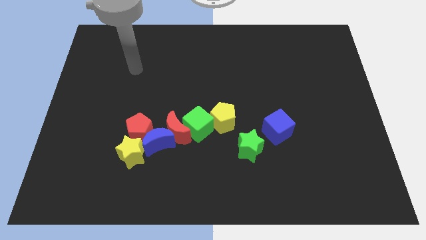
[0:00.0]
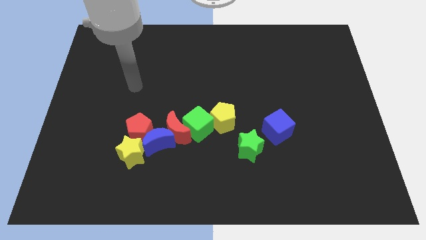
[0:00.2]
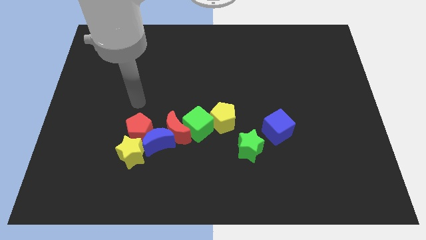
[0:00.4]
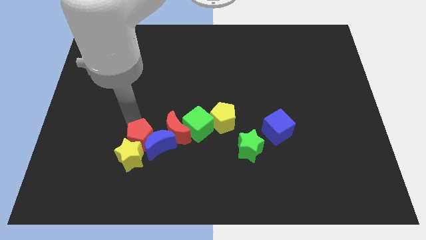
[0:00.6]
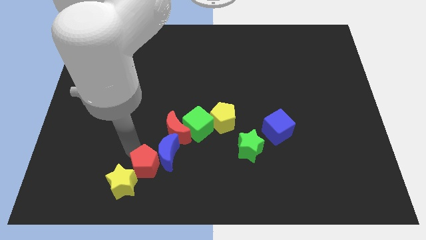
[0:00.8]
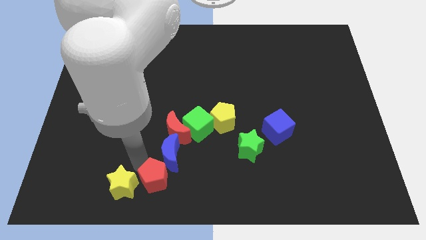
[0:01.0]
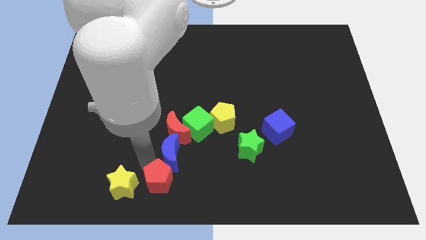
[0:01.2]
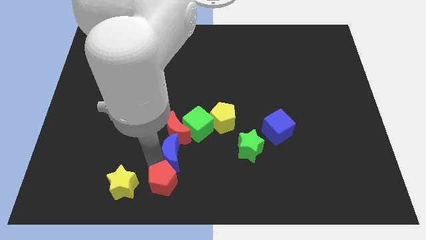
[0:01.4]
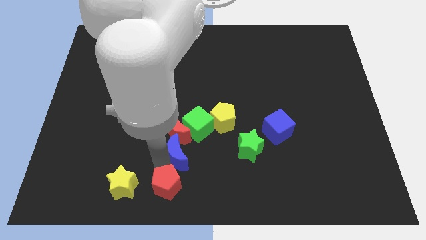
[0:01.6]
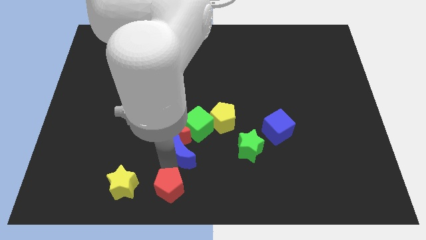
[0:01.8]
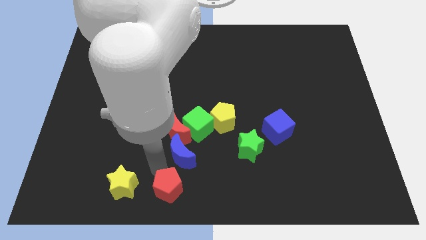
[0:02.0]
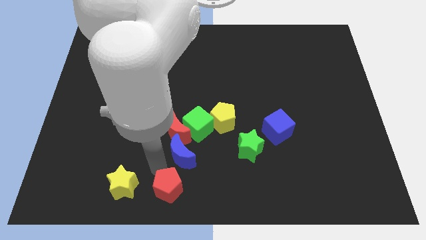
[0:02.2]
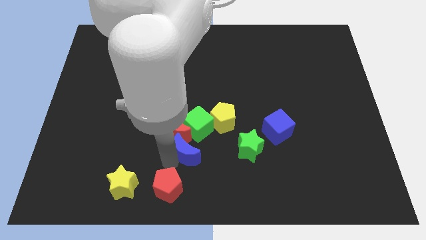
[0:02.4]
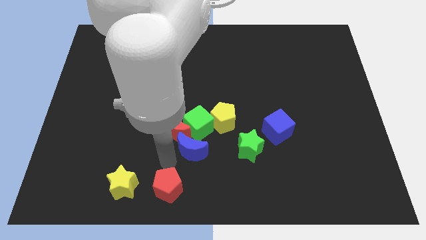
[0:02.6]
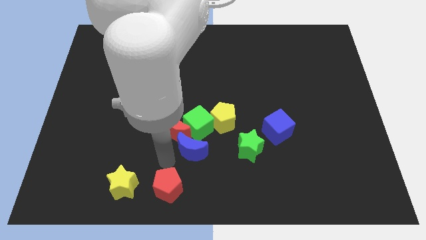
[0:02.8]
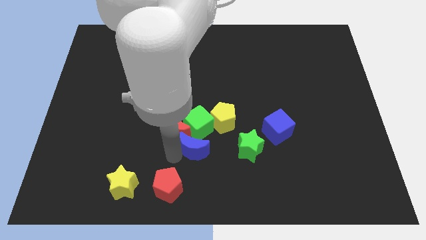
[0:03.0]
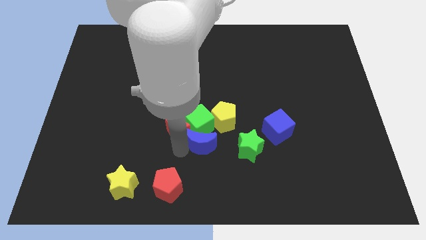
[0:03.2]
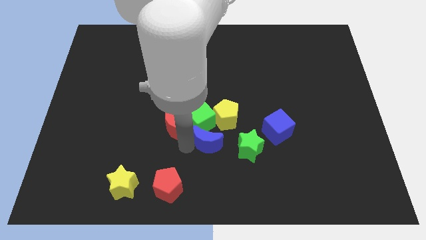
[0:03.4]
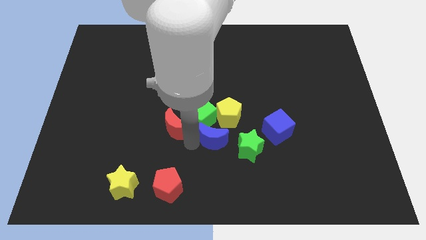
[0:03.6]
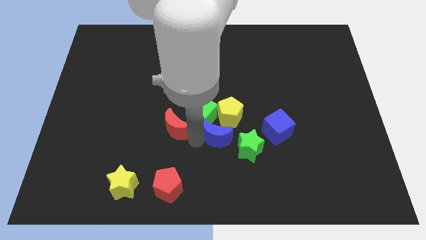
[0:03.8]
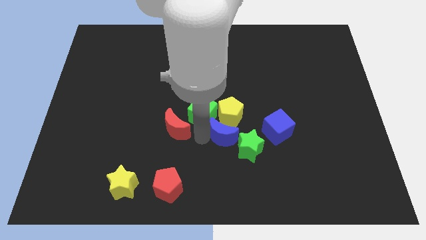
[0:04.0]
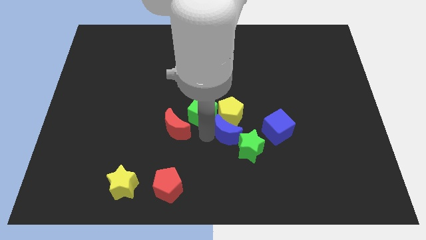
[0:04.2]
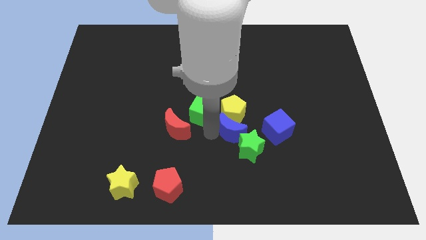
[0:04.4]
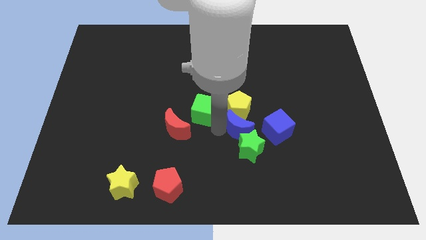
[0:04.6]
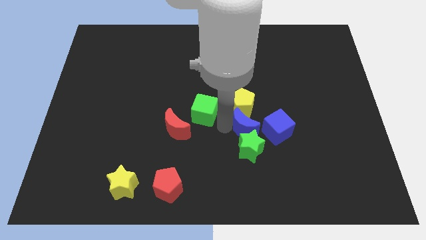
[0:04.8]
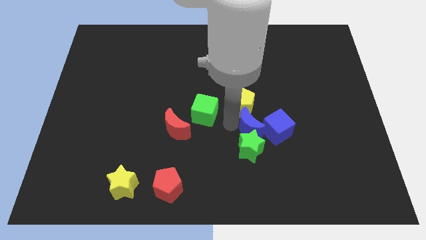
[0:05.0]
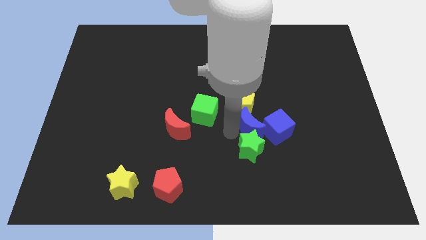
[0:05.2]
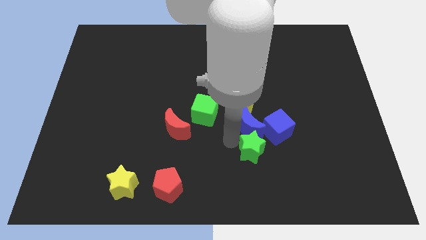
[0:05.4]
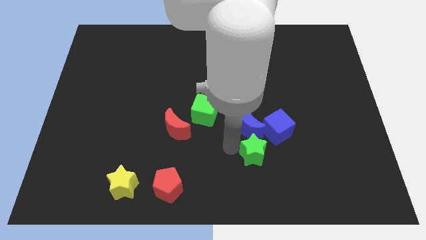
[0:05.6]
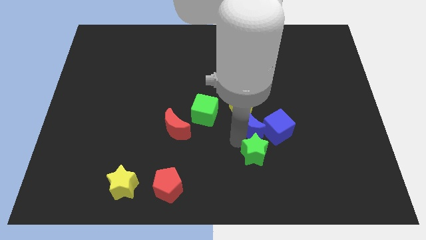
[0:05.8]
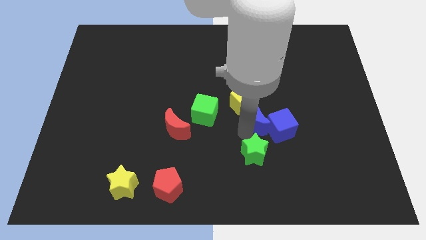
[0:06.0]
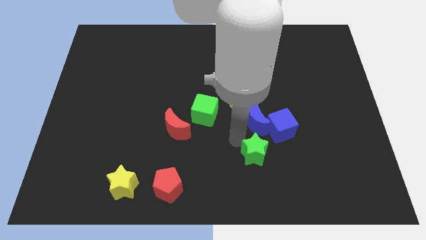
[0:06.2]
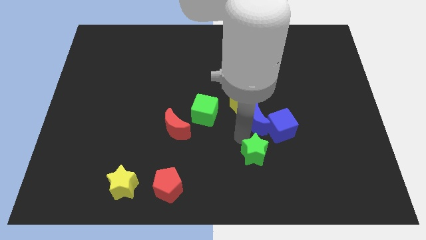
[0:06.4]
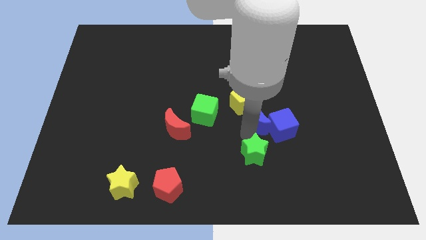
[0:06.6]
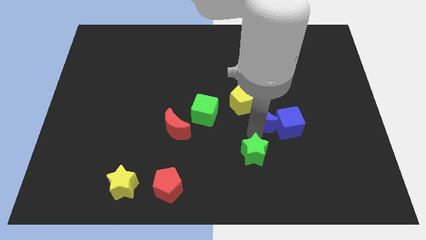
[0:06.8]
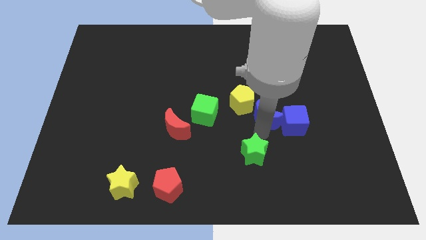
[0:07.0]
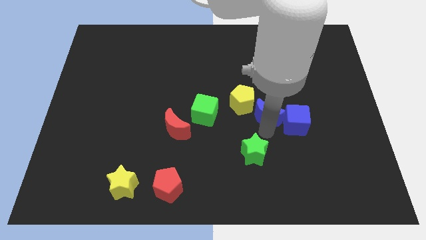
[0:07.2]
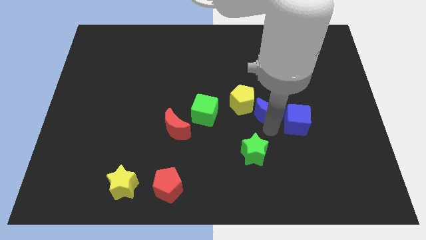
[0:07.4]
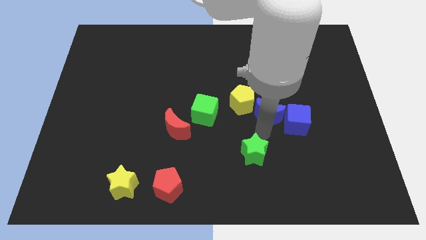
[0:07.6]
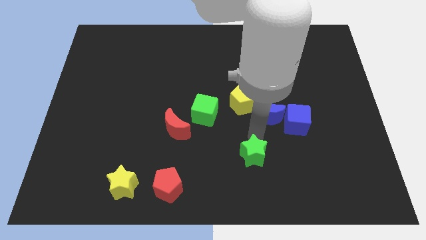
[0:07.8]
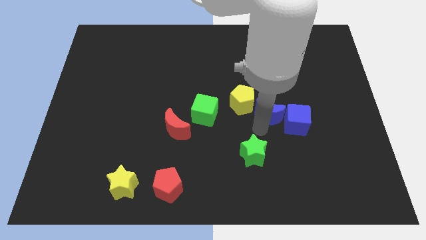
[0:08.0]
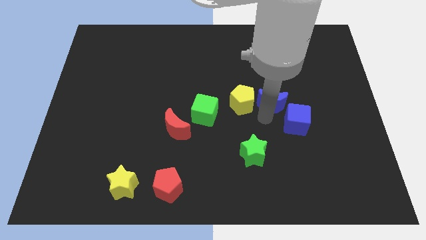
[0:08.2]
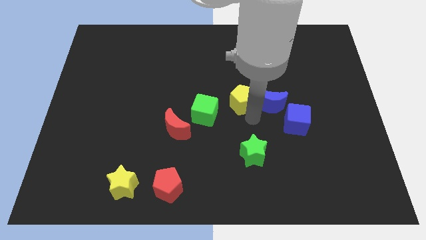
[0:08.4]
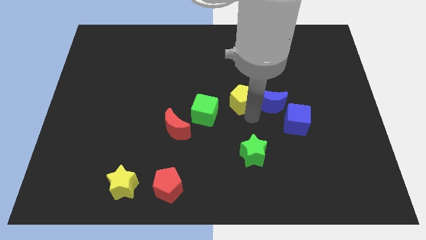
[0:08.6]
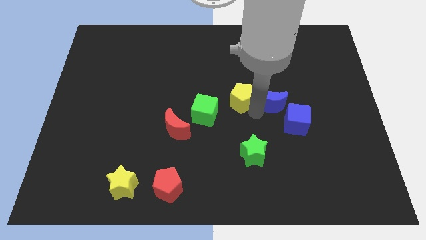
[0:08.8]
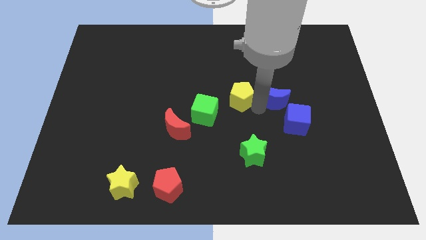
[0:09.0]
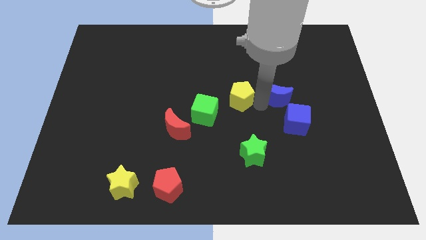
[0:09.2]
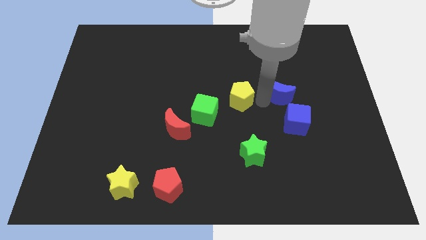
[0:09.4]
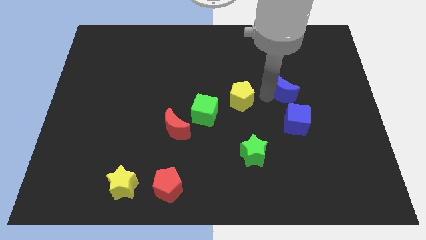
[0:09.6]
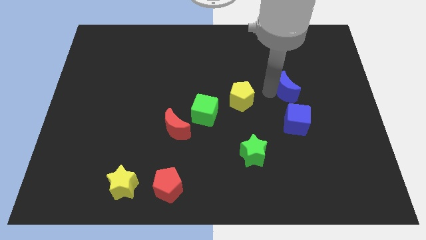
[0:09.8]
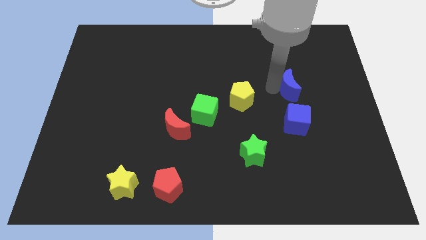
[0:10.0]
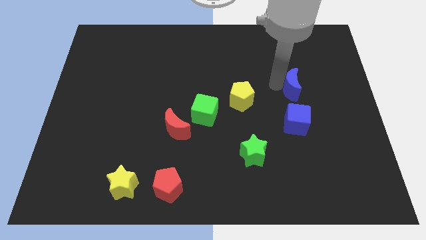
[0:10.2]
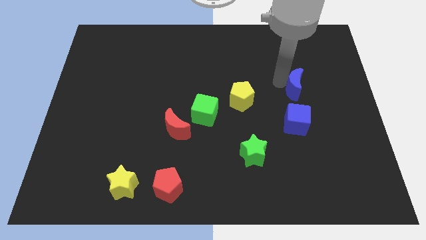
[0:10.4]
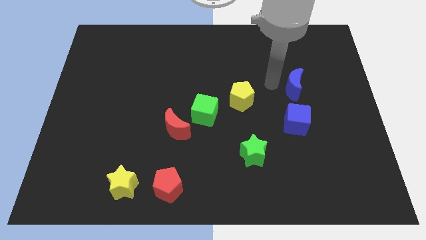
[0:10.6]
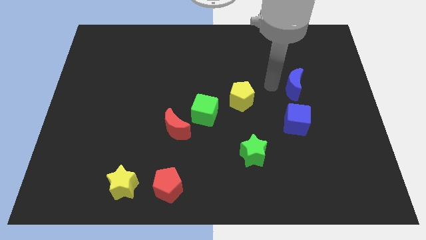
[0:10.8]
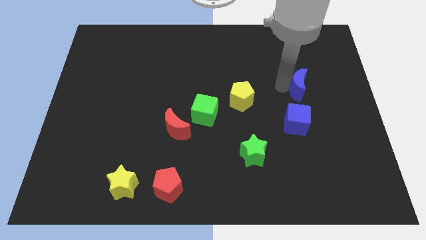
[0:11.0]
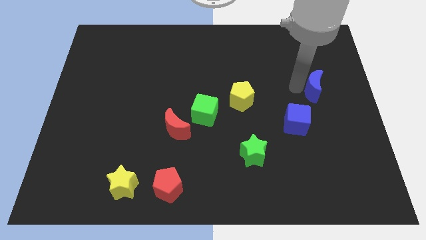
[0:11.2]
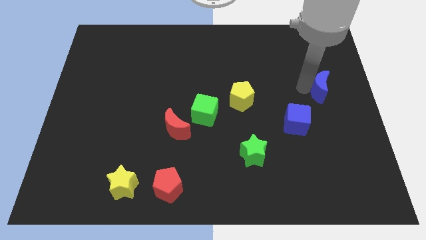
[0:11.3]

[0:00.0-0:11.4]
push the blue moon to the right side of the board

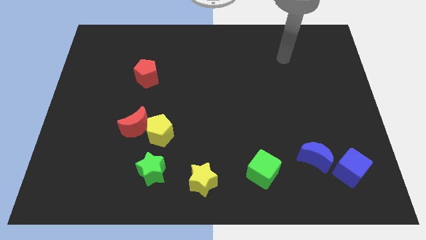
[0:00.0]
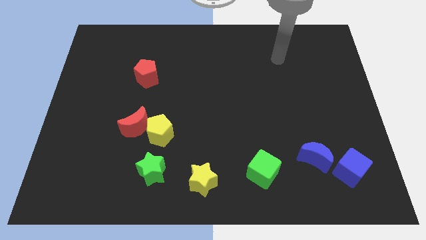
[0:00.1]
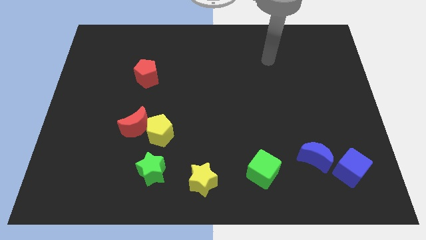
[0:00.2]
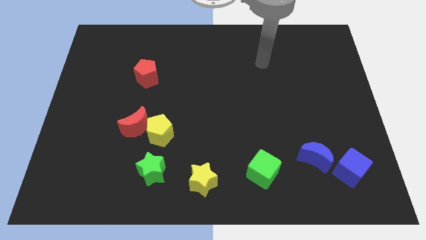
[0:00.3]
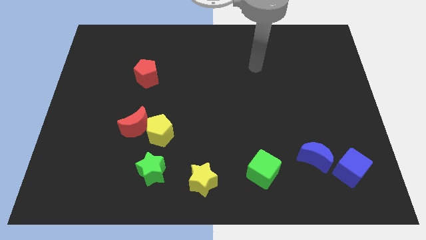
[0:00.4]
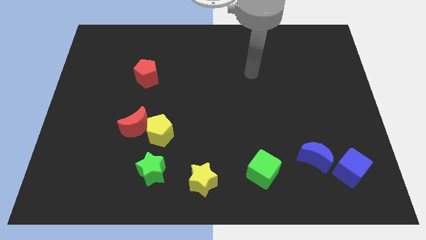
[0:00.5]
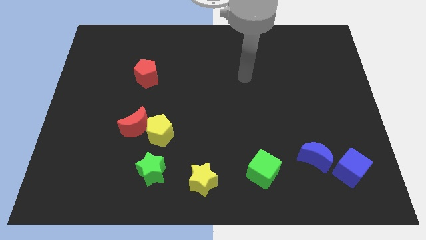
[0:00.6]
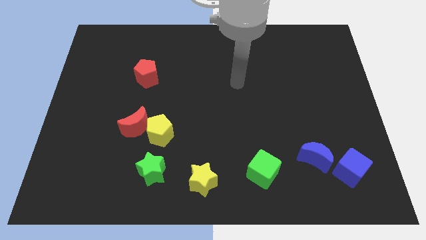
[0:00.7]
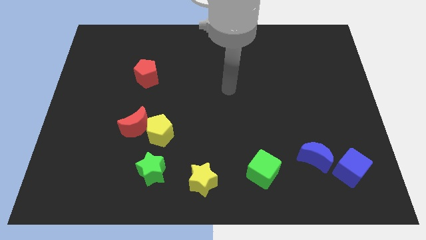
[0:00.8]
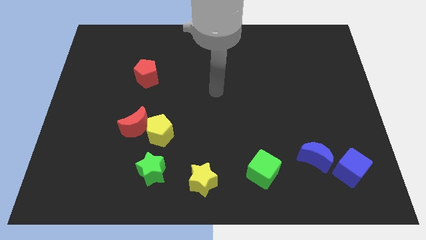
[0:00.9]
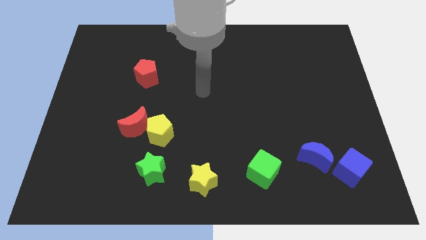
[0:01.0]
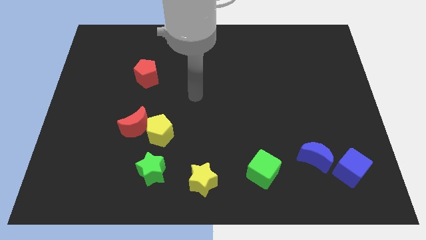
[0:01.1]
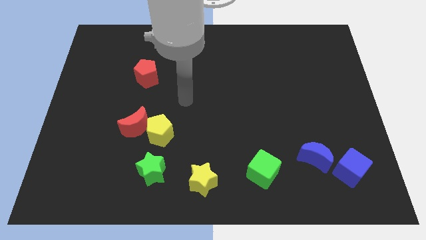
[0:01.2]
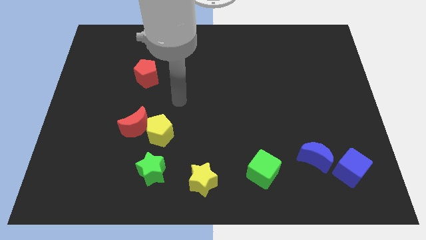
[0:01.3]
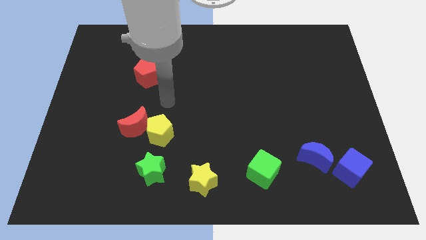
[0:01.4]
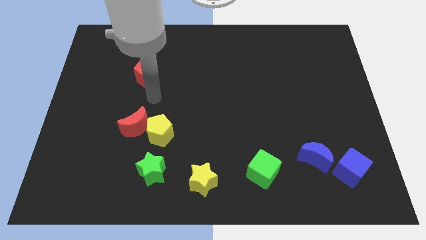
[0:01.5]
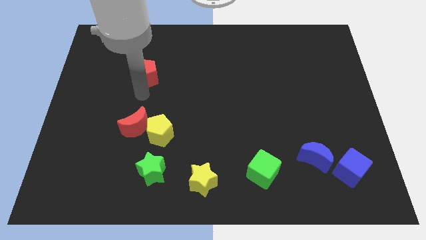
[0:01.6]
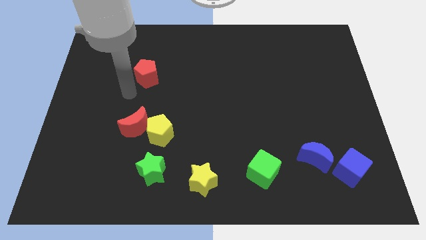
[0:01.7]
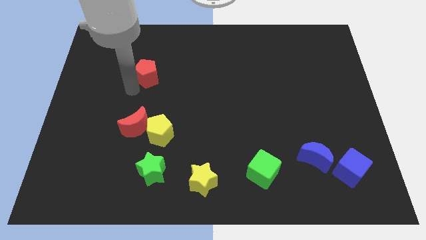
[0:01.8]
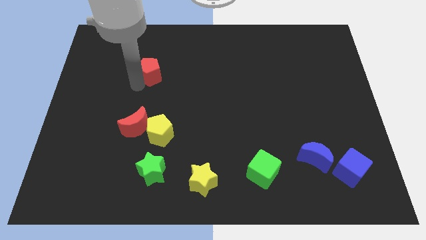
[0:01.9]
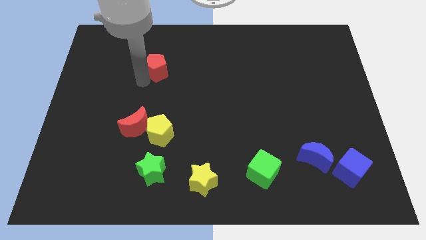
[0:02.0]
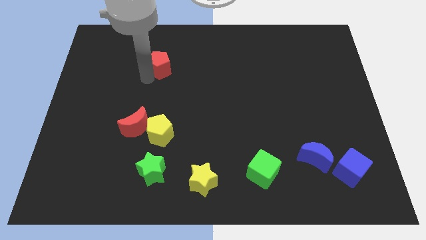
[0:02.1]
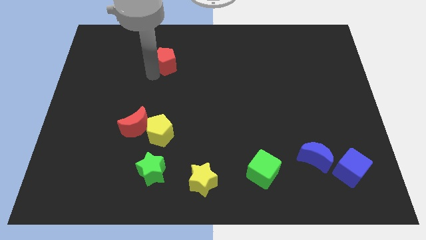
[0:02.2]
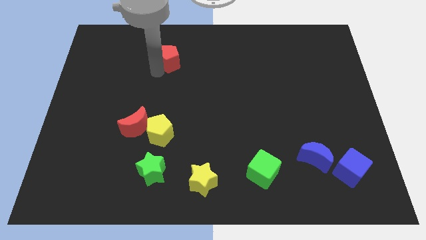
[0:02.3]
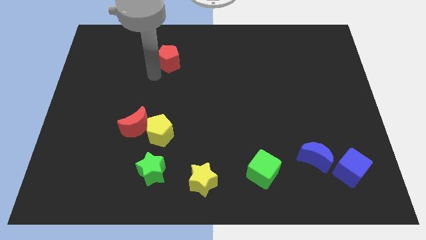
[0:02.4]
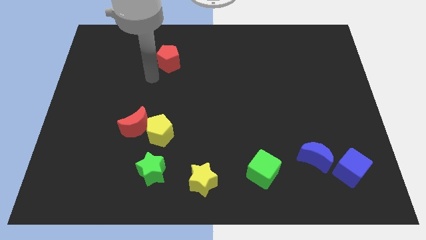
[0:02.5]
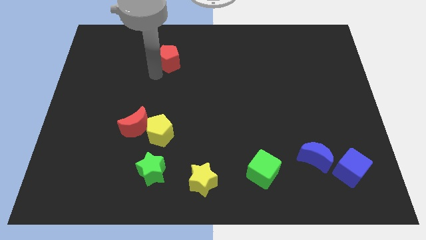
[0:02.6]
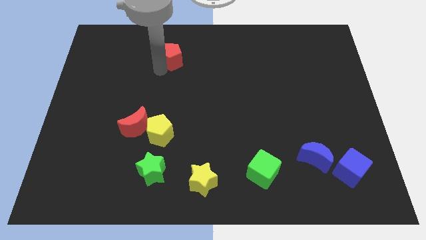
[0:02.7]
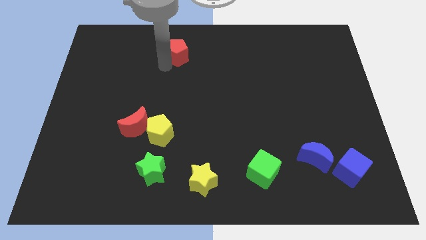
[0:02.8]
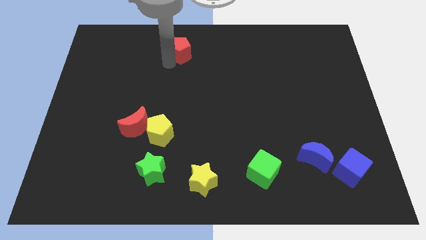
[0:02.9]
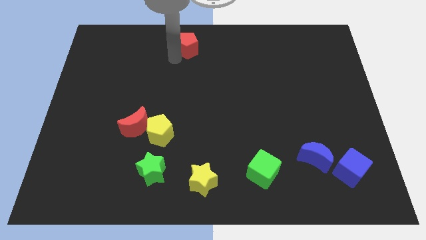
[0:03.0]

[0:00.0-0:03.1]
move the red pentagon to the top side
